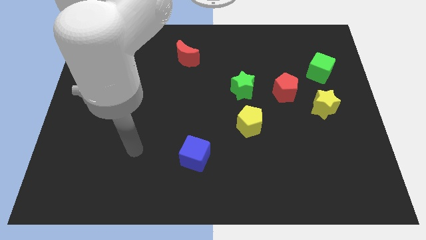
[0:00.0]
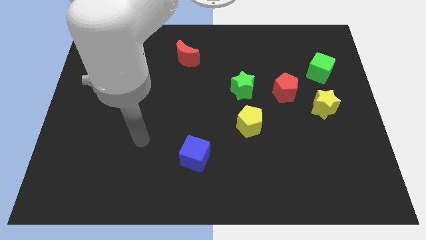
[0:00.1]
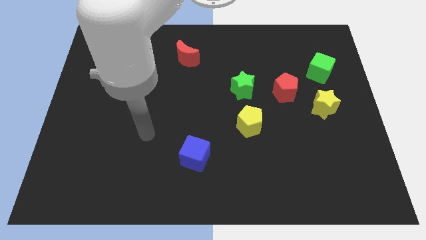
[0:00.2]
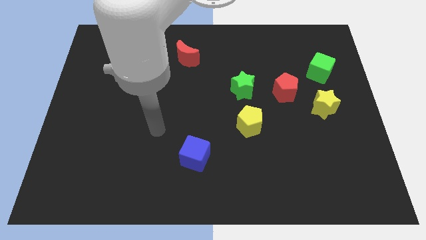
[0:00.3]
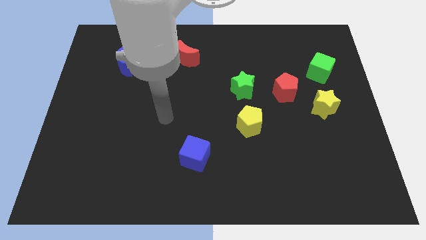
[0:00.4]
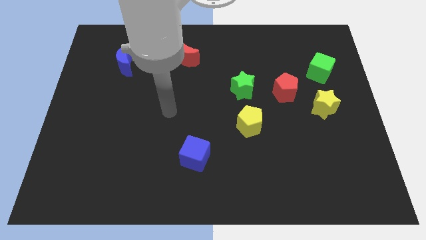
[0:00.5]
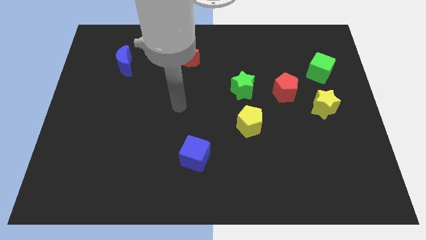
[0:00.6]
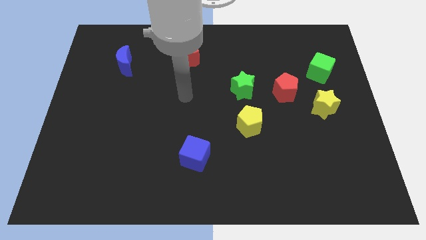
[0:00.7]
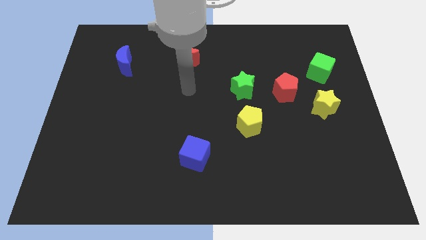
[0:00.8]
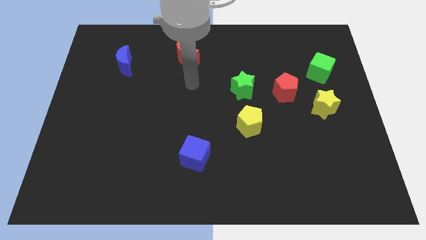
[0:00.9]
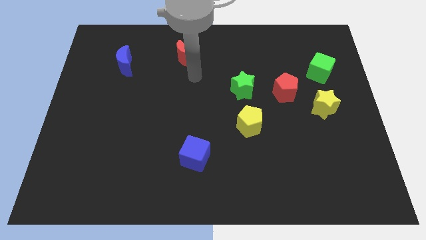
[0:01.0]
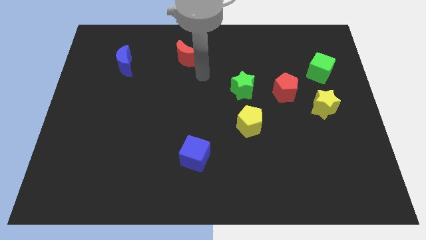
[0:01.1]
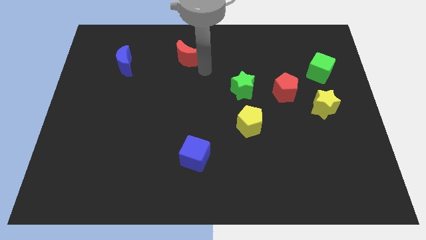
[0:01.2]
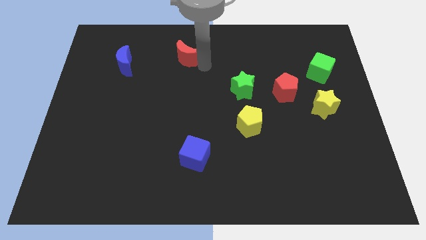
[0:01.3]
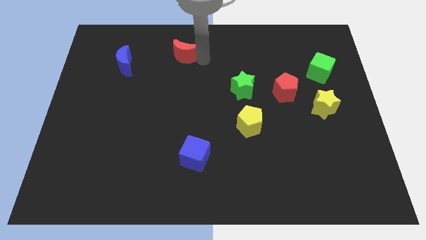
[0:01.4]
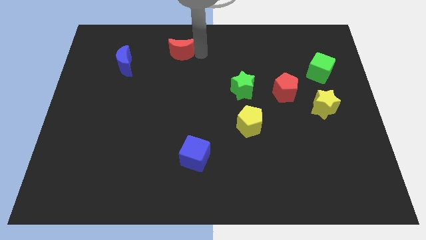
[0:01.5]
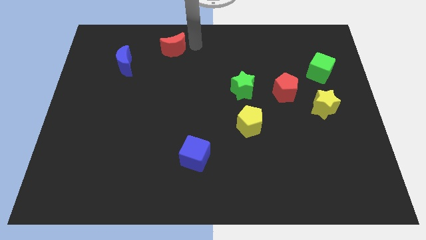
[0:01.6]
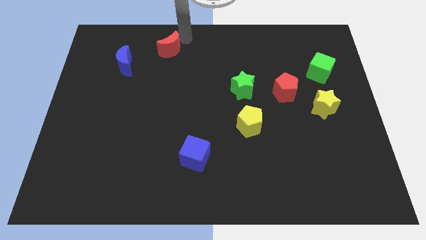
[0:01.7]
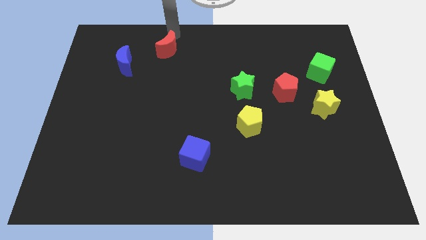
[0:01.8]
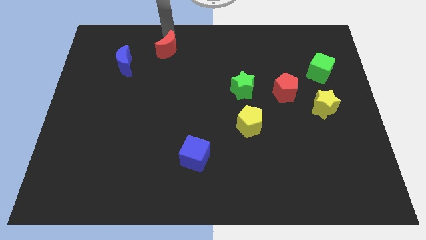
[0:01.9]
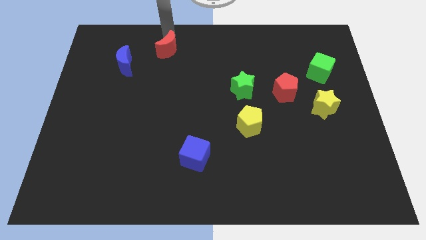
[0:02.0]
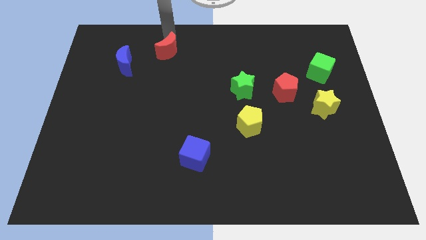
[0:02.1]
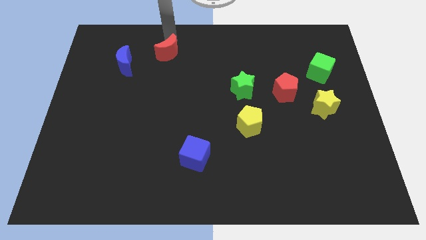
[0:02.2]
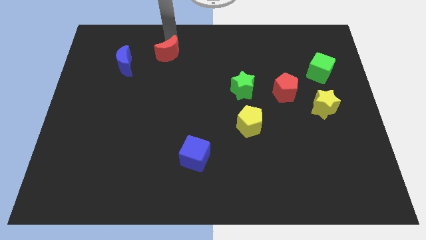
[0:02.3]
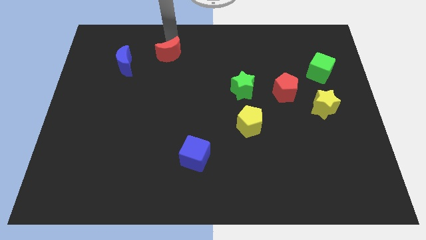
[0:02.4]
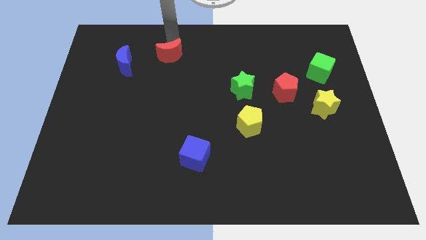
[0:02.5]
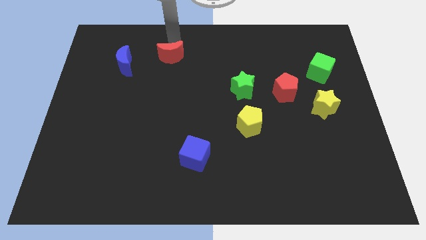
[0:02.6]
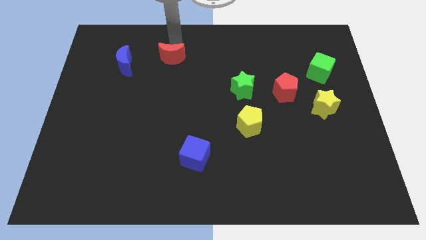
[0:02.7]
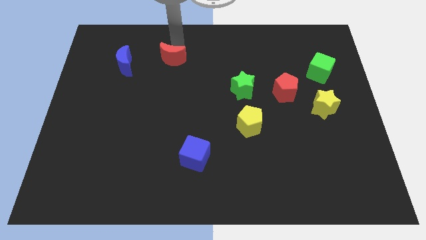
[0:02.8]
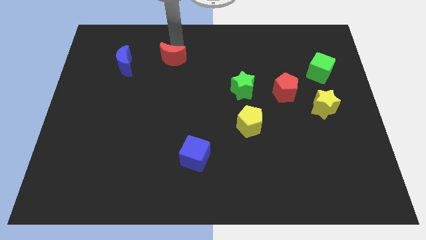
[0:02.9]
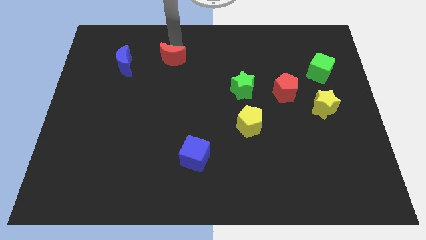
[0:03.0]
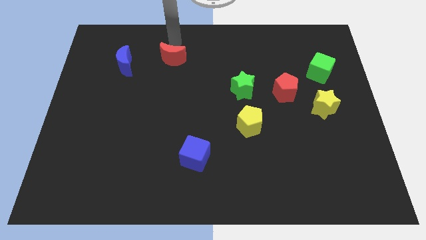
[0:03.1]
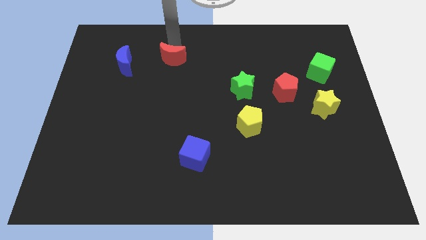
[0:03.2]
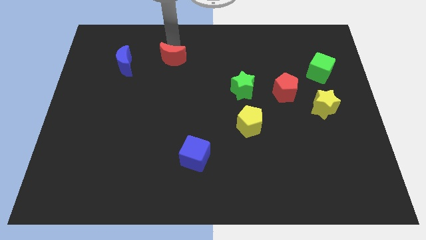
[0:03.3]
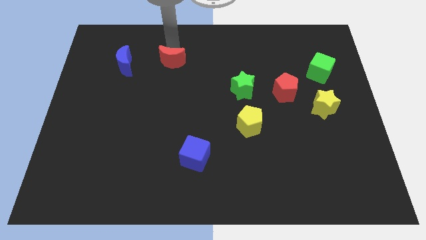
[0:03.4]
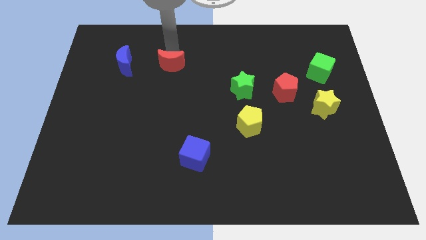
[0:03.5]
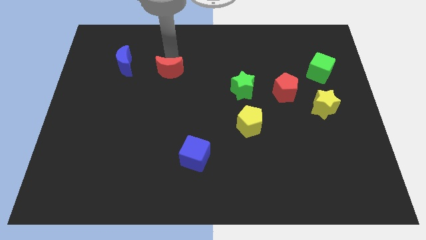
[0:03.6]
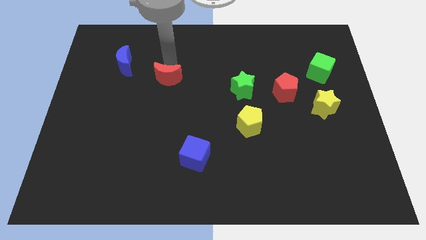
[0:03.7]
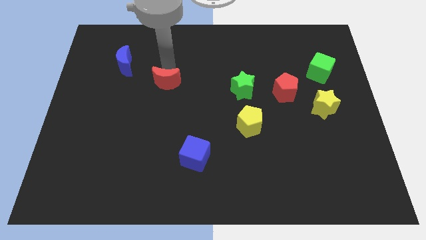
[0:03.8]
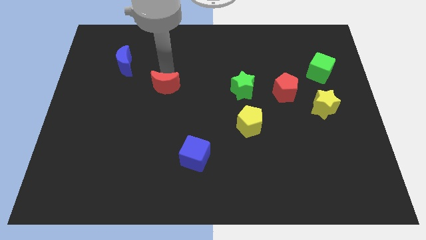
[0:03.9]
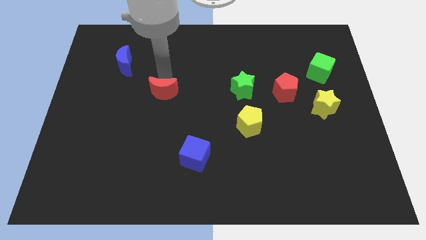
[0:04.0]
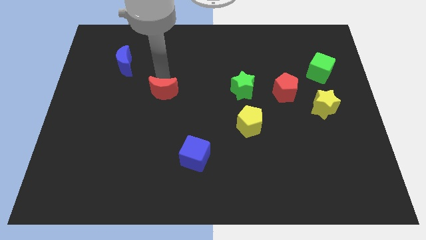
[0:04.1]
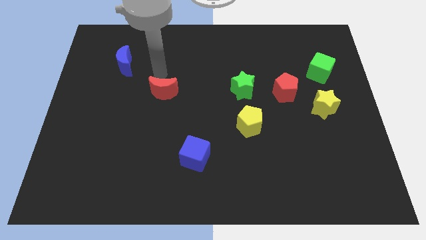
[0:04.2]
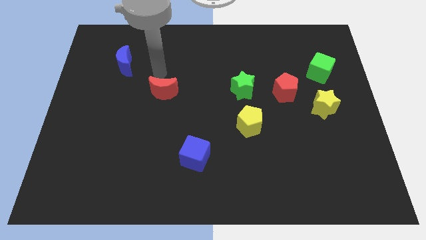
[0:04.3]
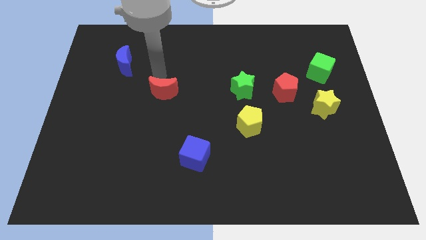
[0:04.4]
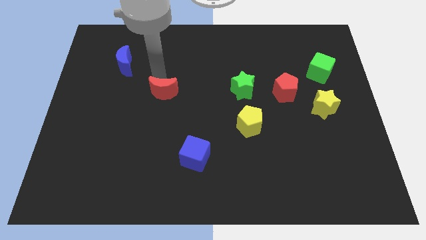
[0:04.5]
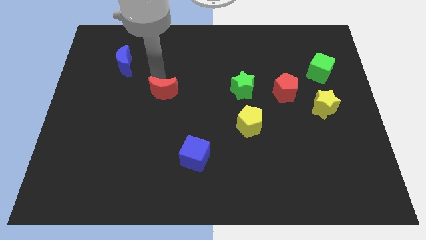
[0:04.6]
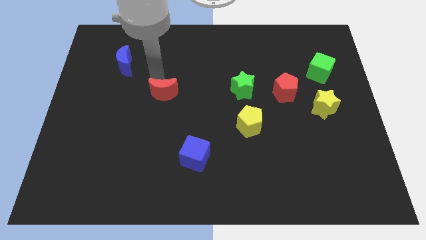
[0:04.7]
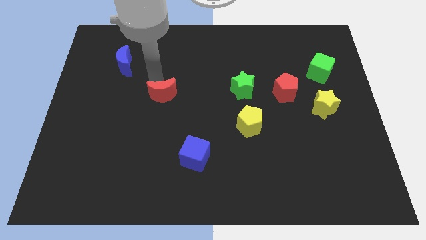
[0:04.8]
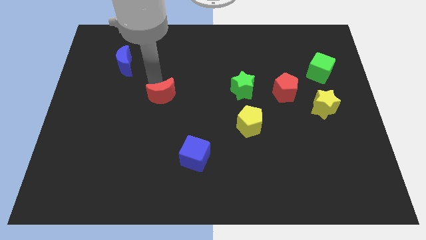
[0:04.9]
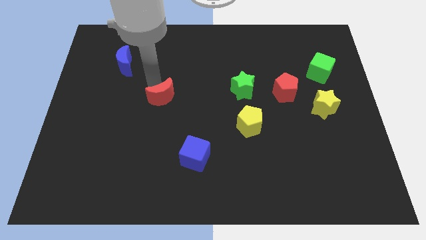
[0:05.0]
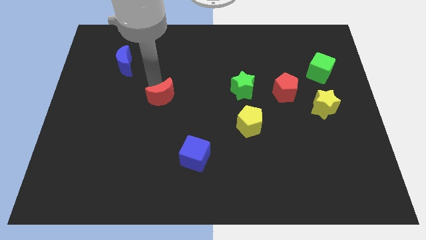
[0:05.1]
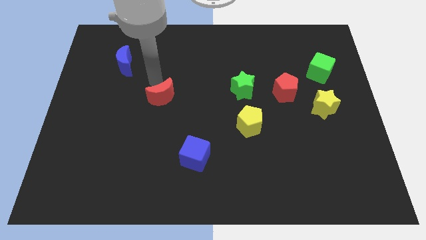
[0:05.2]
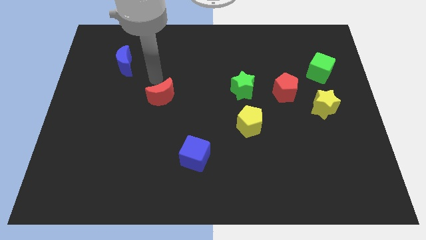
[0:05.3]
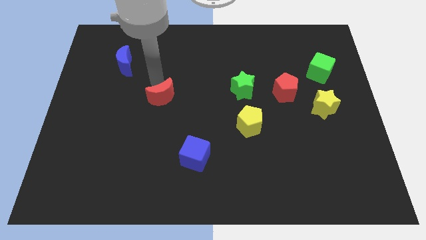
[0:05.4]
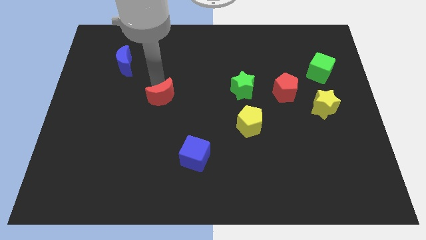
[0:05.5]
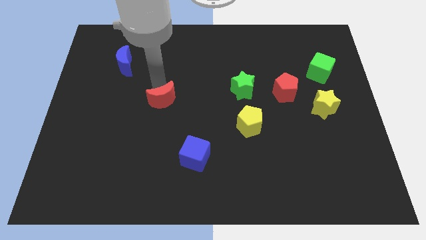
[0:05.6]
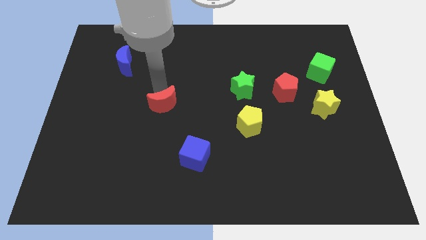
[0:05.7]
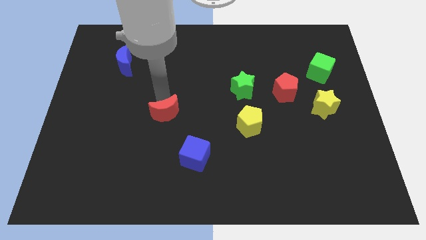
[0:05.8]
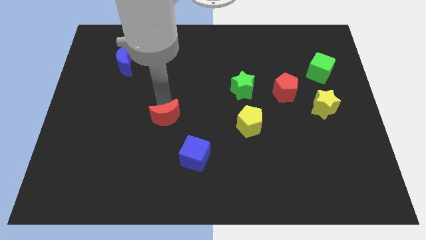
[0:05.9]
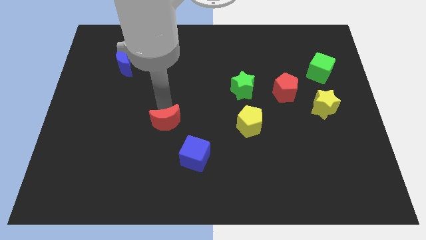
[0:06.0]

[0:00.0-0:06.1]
move the red moon downwards

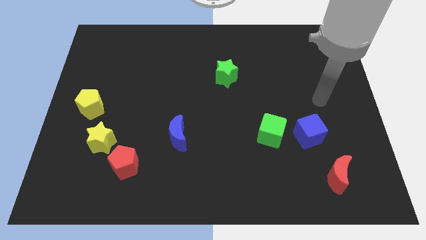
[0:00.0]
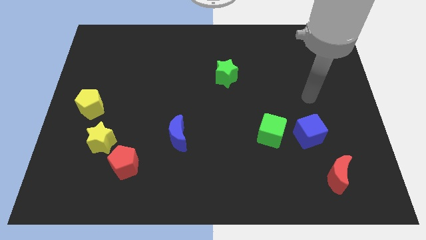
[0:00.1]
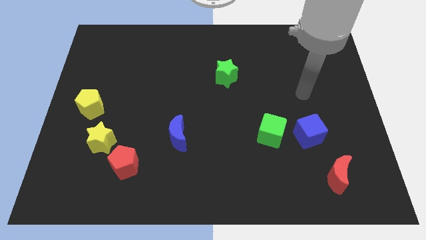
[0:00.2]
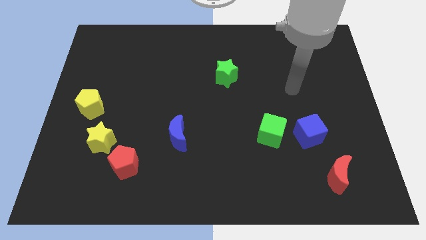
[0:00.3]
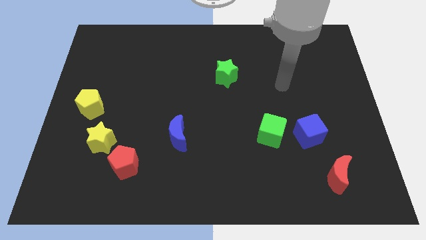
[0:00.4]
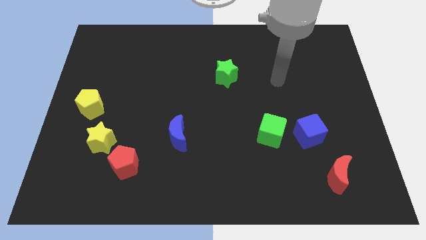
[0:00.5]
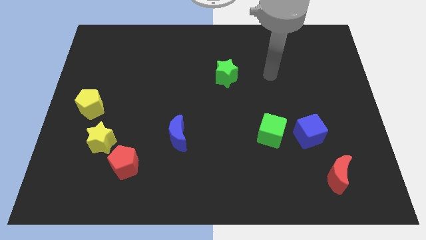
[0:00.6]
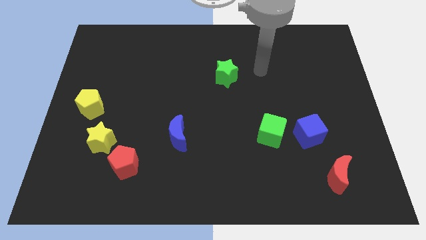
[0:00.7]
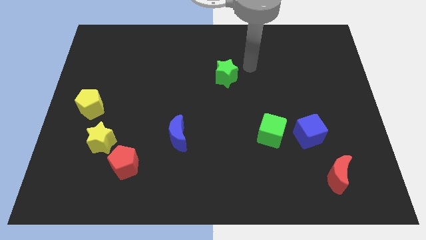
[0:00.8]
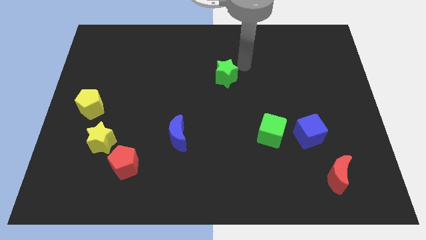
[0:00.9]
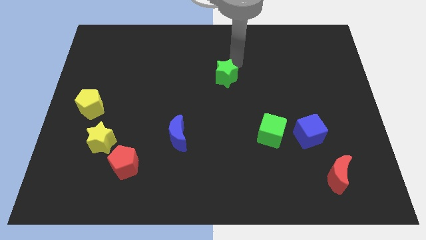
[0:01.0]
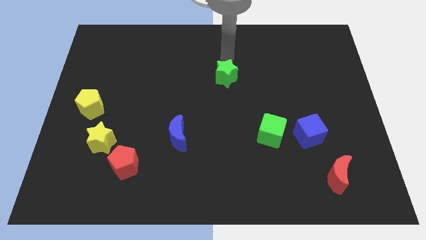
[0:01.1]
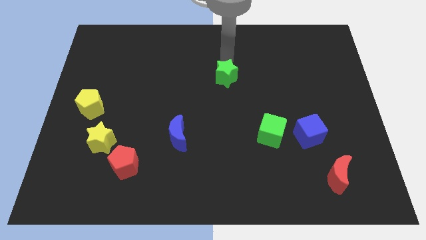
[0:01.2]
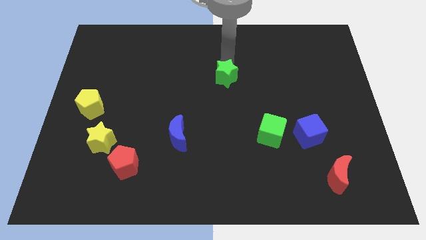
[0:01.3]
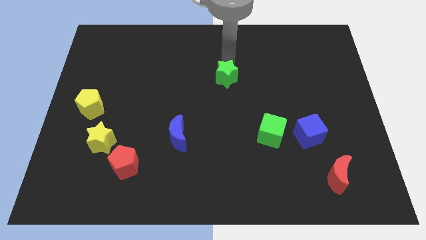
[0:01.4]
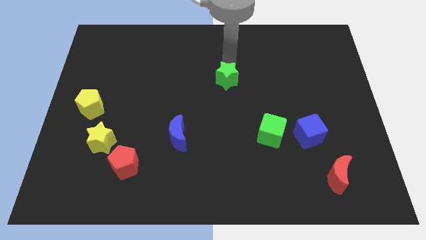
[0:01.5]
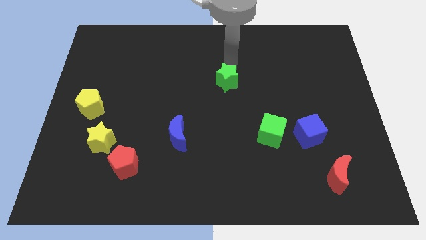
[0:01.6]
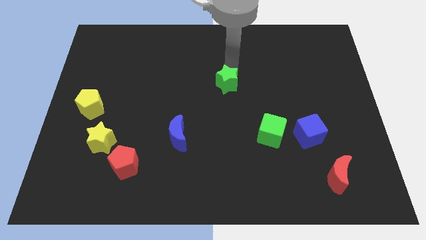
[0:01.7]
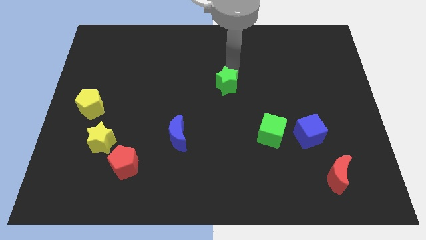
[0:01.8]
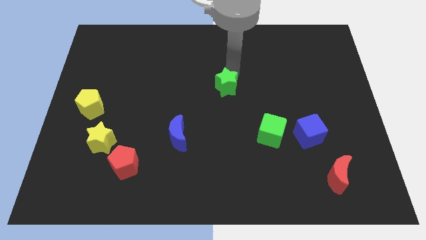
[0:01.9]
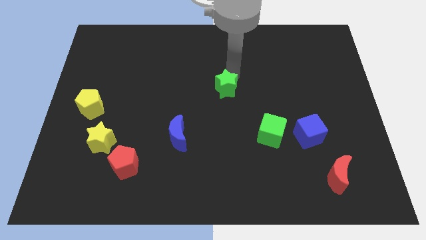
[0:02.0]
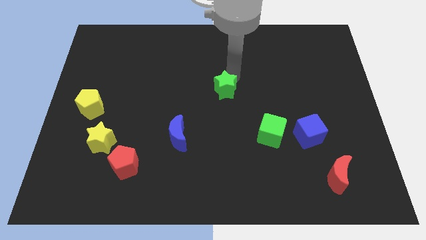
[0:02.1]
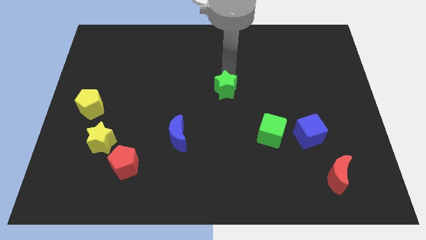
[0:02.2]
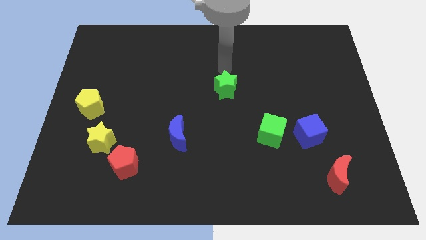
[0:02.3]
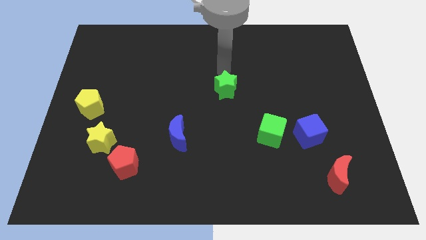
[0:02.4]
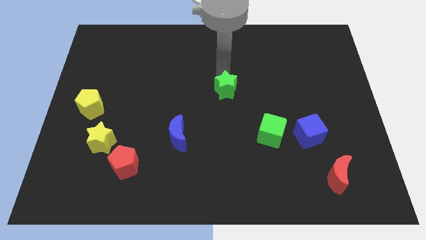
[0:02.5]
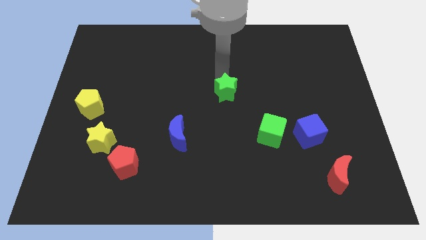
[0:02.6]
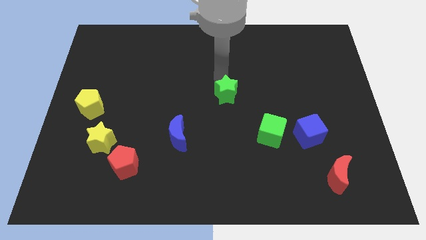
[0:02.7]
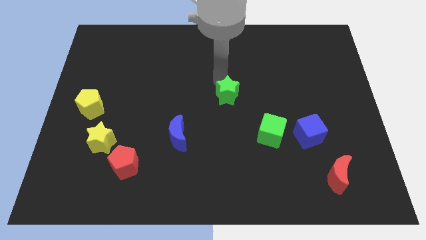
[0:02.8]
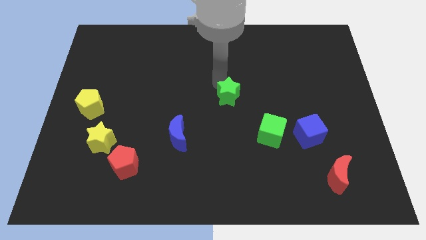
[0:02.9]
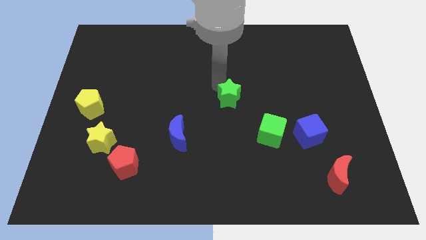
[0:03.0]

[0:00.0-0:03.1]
slide the green star a little bit down
